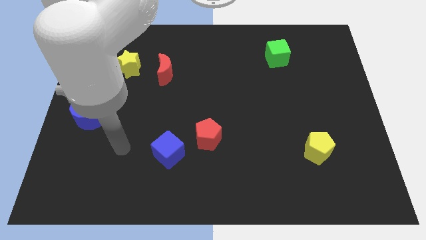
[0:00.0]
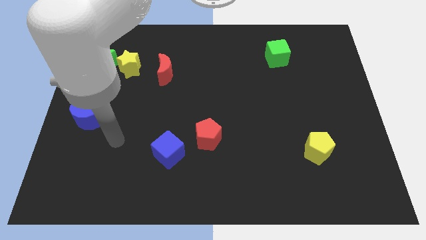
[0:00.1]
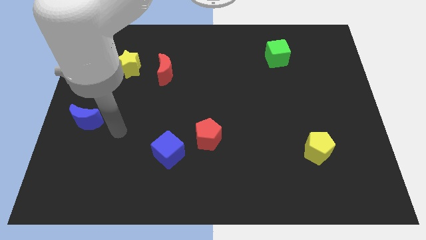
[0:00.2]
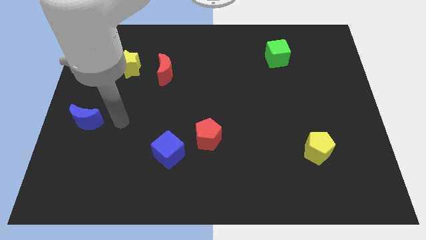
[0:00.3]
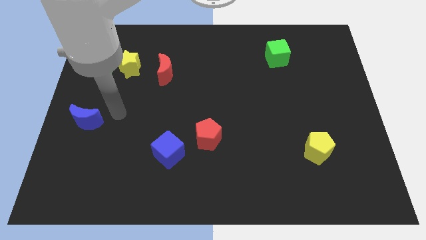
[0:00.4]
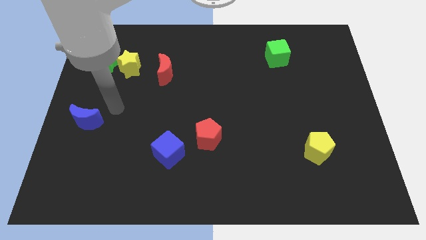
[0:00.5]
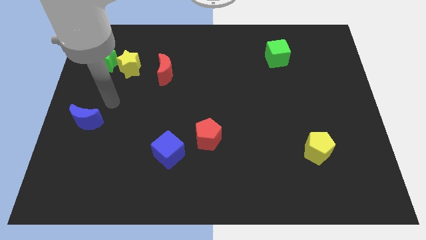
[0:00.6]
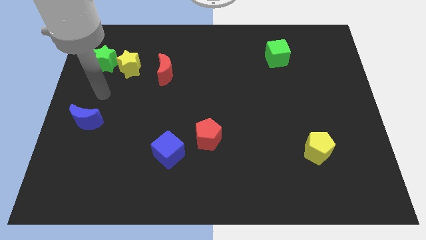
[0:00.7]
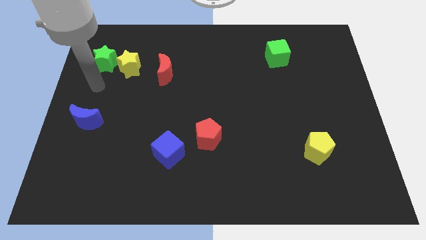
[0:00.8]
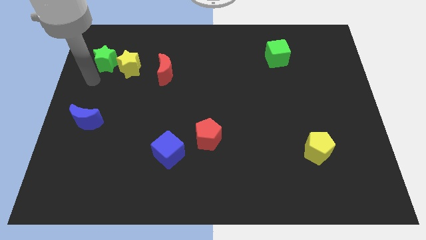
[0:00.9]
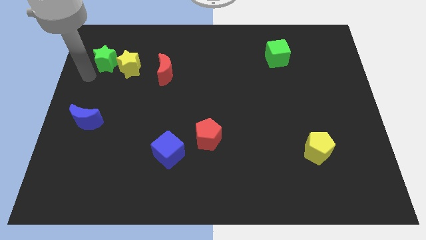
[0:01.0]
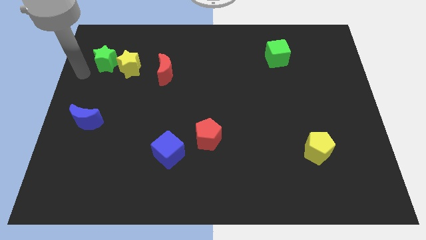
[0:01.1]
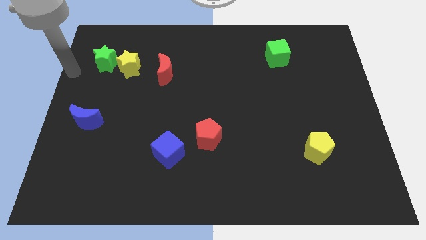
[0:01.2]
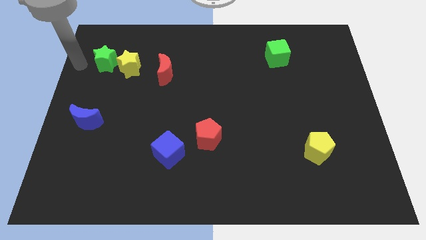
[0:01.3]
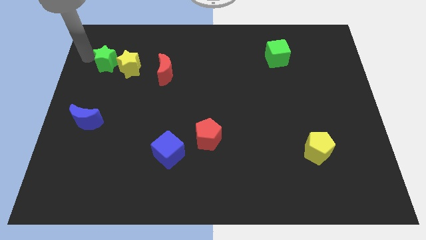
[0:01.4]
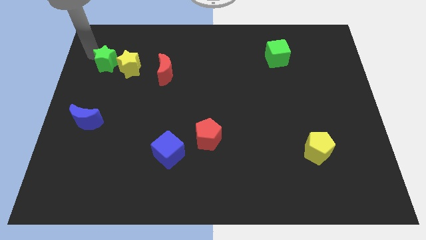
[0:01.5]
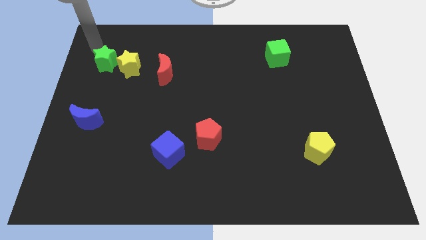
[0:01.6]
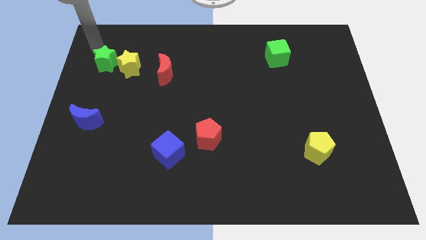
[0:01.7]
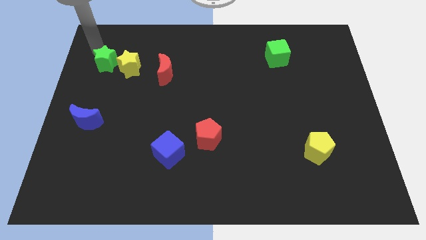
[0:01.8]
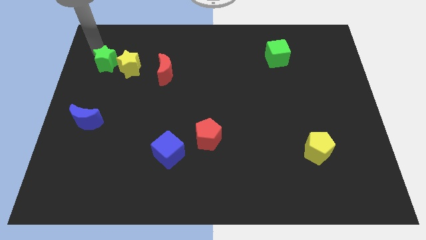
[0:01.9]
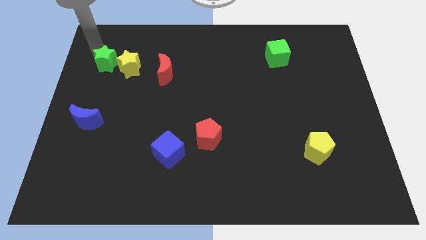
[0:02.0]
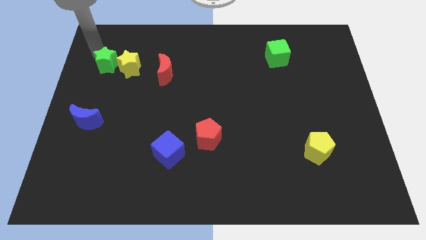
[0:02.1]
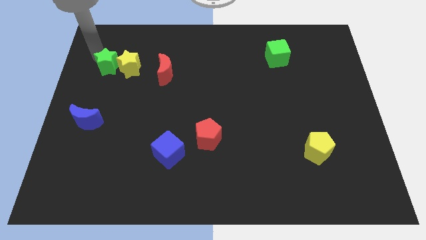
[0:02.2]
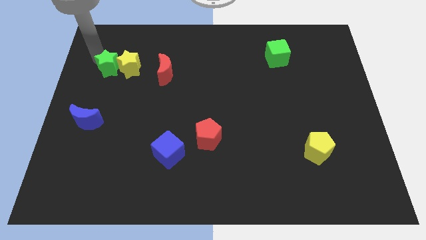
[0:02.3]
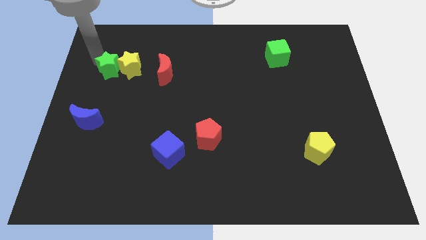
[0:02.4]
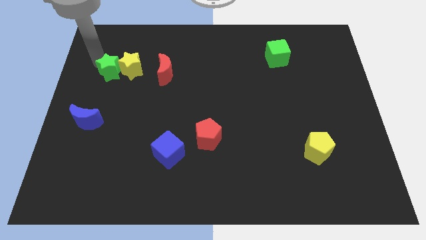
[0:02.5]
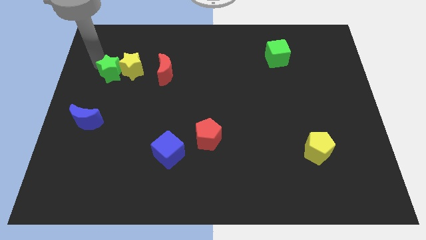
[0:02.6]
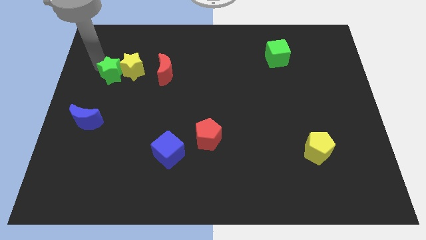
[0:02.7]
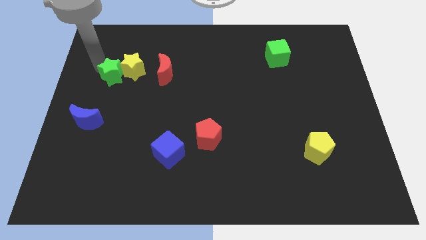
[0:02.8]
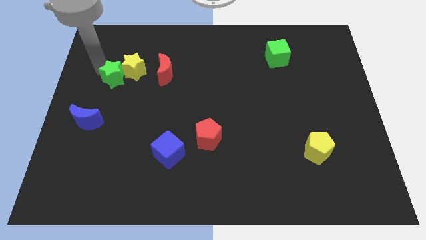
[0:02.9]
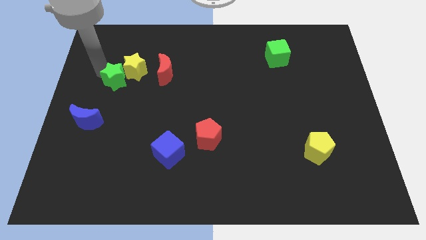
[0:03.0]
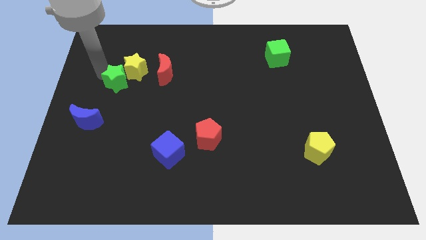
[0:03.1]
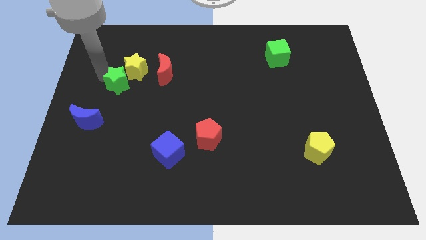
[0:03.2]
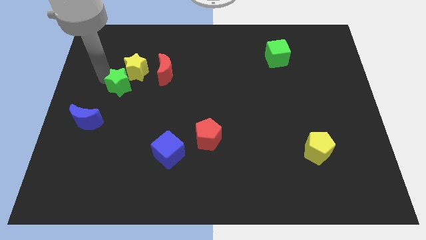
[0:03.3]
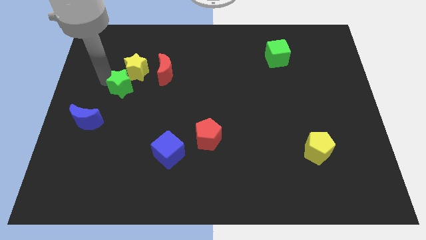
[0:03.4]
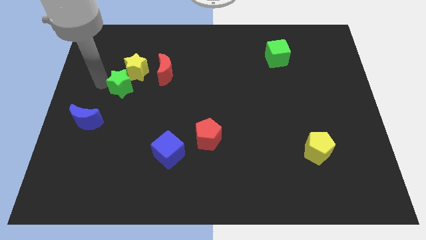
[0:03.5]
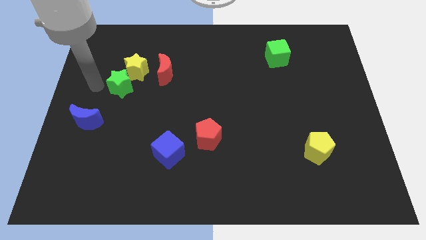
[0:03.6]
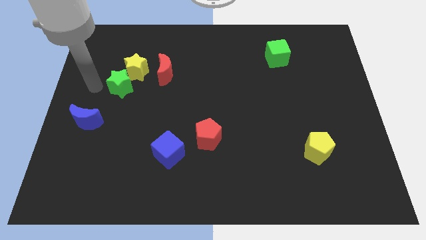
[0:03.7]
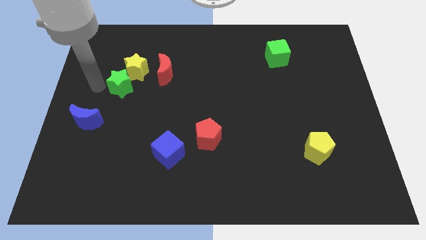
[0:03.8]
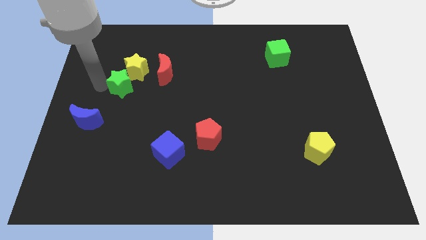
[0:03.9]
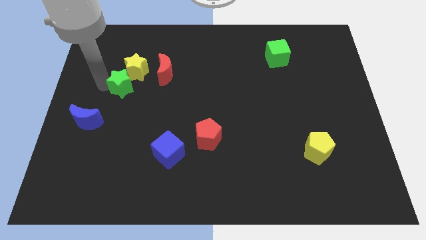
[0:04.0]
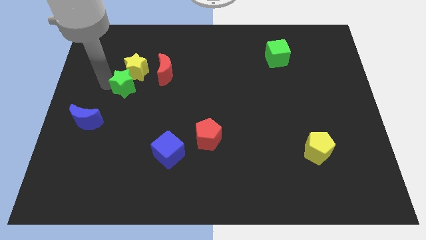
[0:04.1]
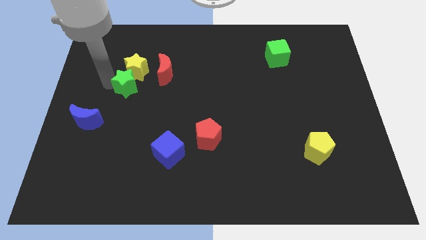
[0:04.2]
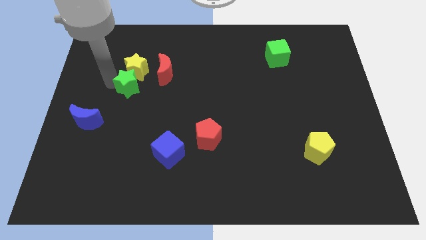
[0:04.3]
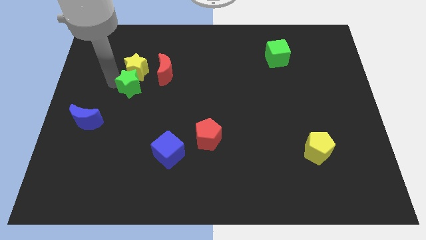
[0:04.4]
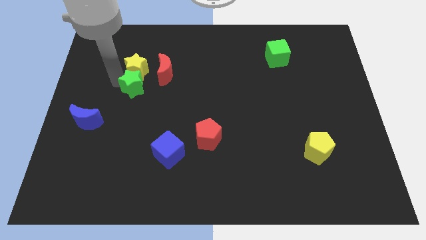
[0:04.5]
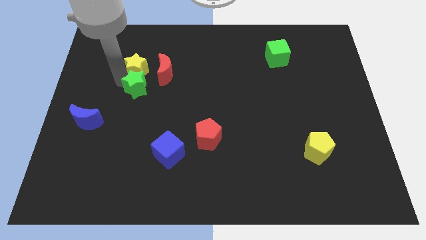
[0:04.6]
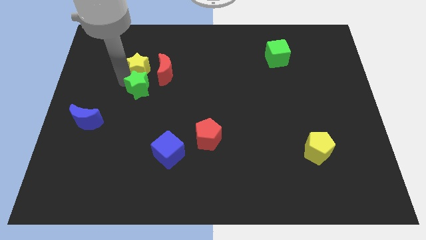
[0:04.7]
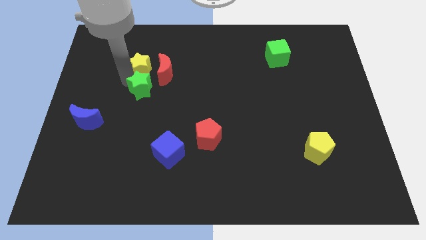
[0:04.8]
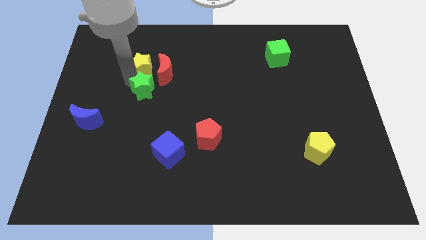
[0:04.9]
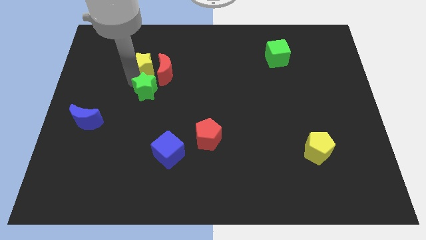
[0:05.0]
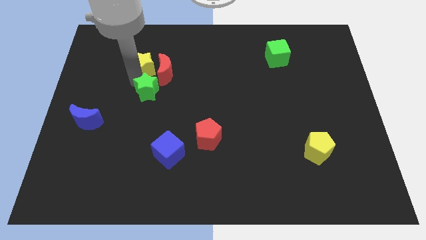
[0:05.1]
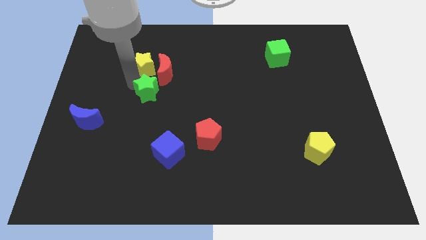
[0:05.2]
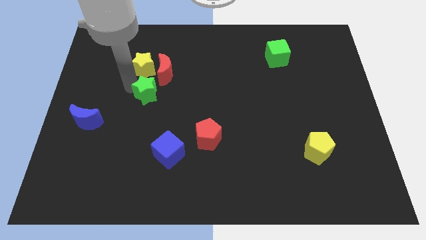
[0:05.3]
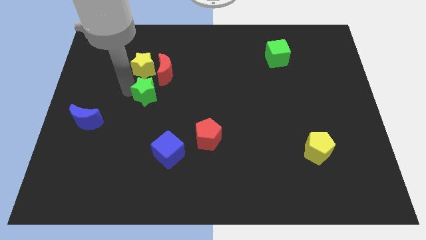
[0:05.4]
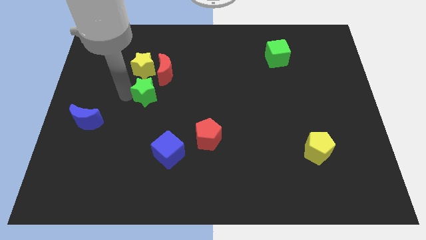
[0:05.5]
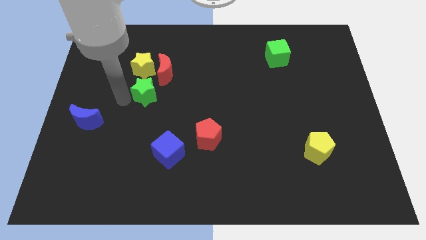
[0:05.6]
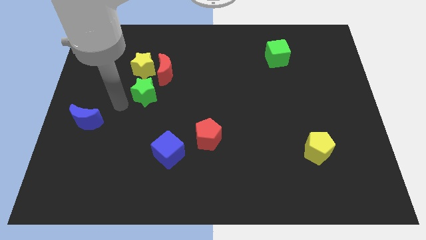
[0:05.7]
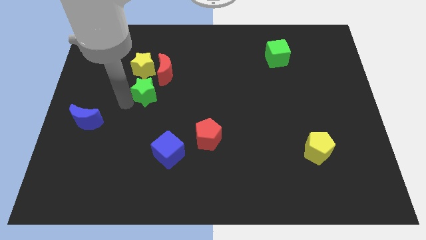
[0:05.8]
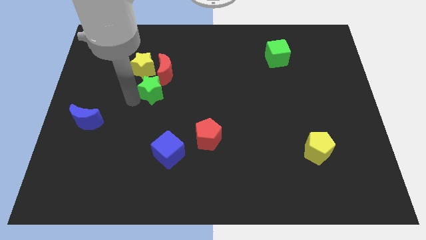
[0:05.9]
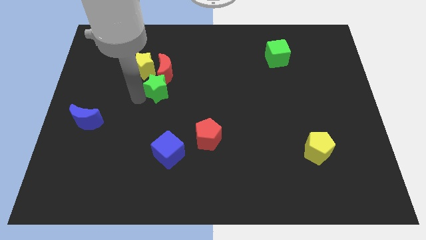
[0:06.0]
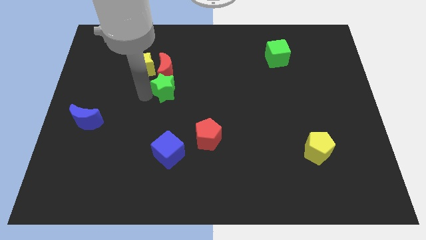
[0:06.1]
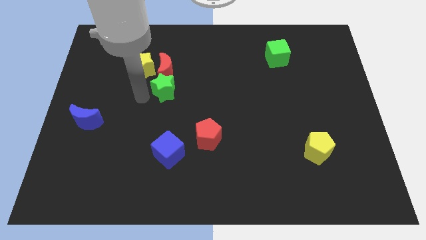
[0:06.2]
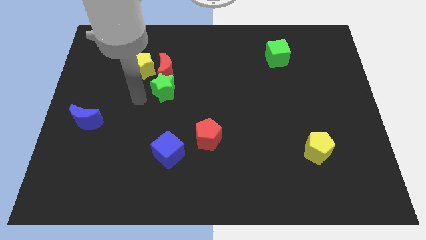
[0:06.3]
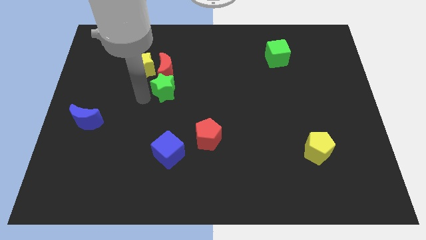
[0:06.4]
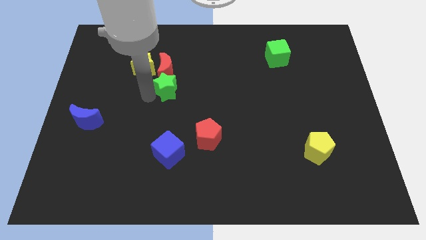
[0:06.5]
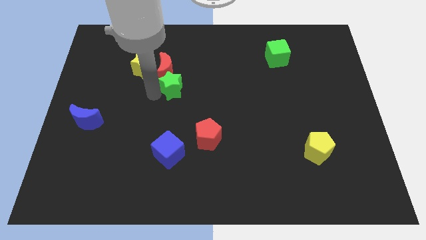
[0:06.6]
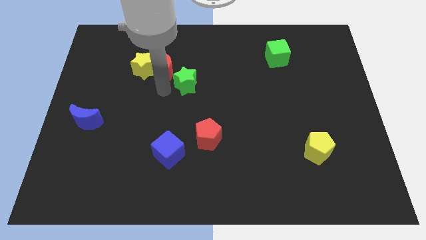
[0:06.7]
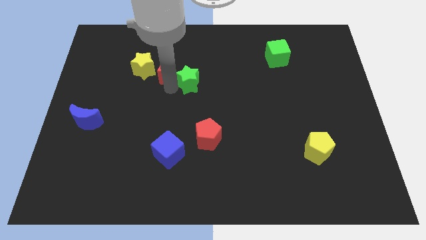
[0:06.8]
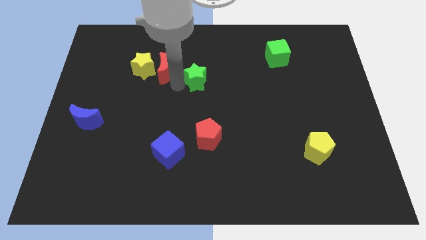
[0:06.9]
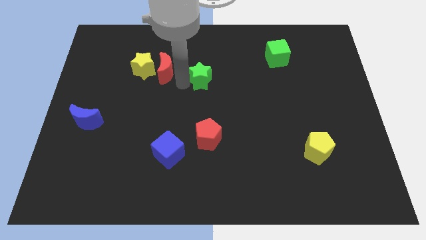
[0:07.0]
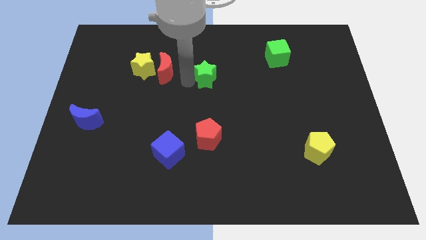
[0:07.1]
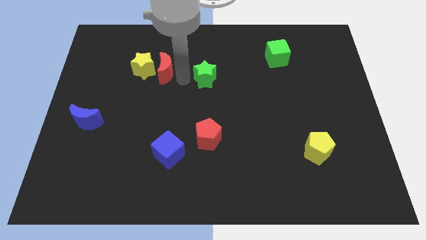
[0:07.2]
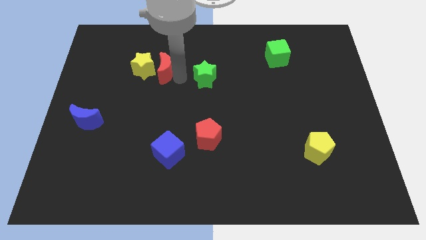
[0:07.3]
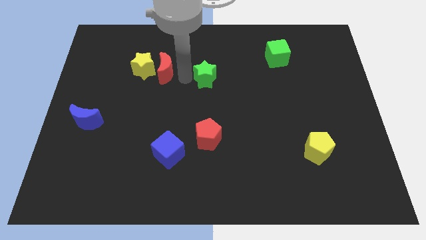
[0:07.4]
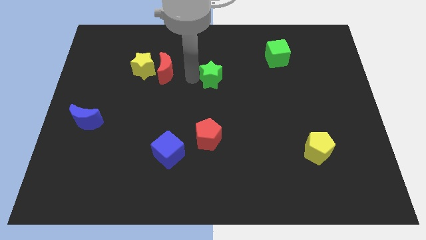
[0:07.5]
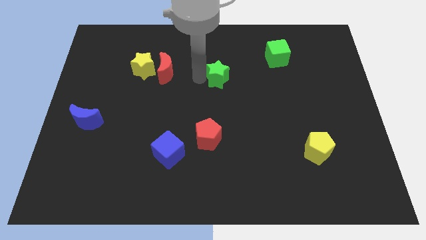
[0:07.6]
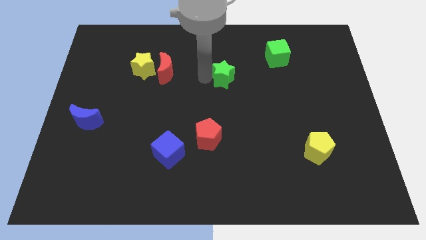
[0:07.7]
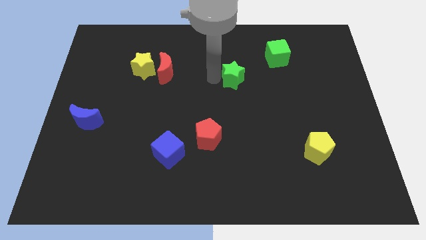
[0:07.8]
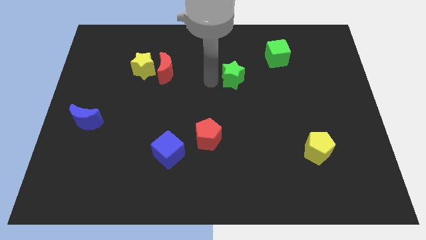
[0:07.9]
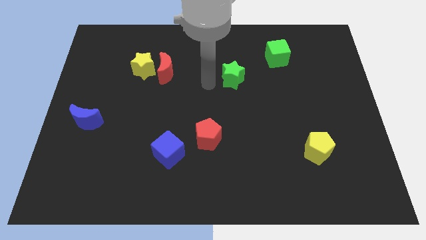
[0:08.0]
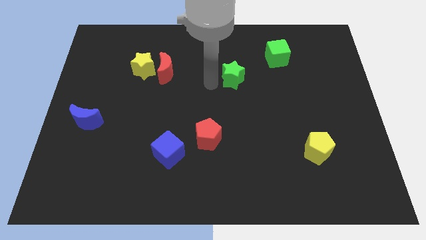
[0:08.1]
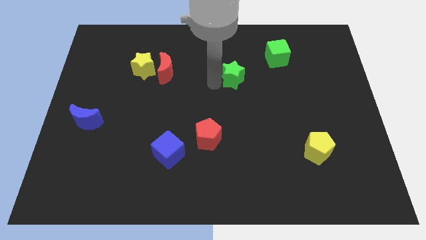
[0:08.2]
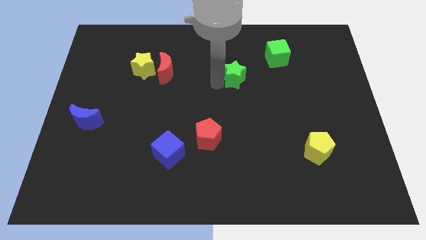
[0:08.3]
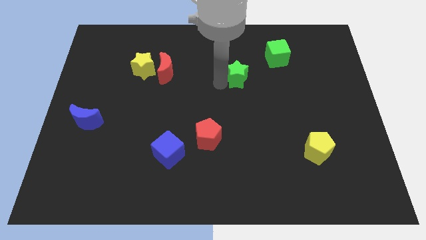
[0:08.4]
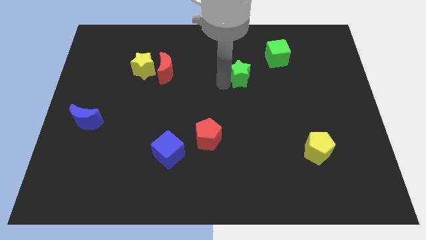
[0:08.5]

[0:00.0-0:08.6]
put the green star diagonally down and to the left of the green cube
